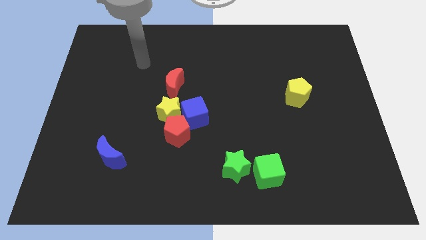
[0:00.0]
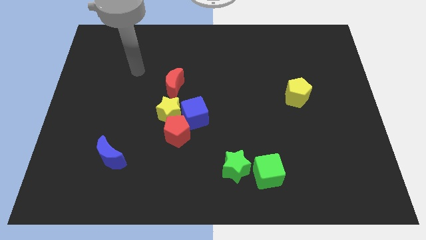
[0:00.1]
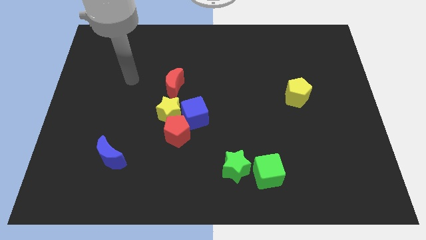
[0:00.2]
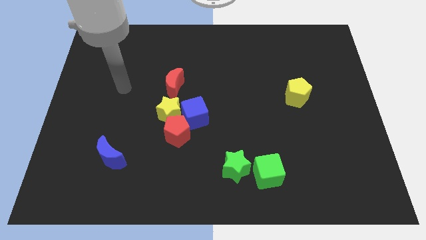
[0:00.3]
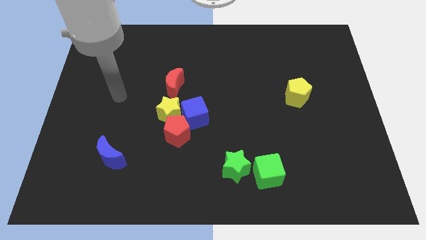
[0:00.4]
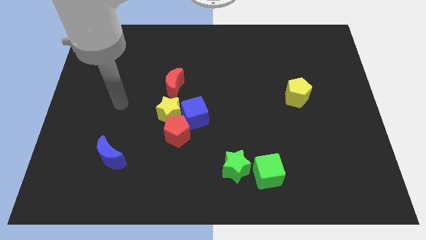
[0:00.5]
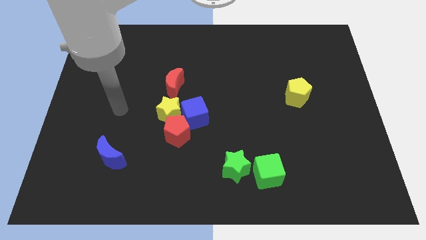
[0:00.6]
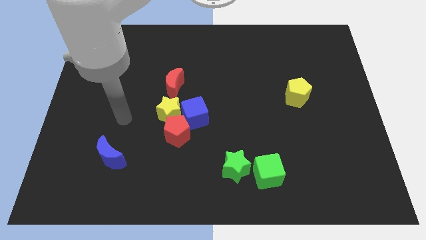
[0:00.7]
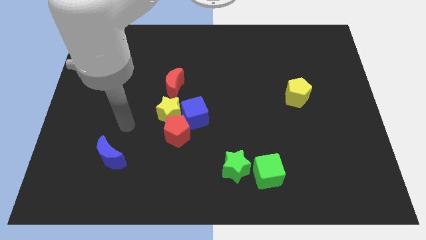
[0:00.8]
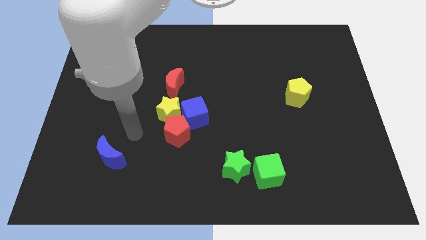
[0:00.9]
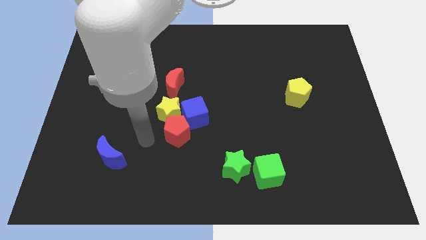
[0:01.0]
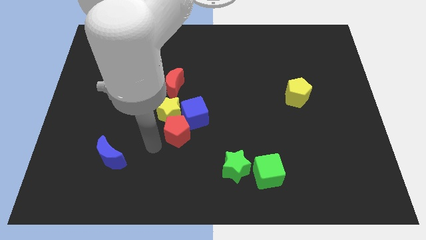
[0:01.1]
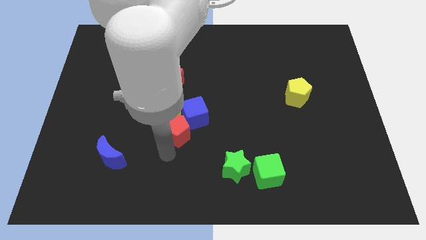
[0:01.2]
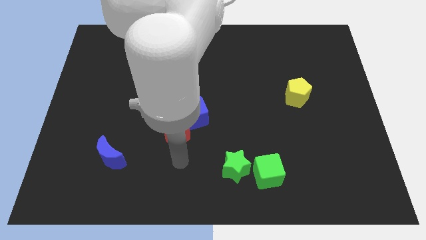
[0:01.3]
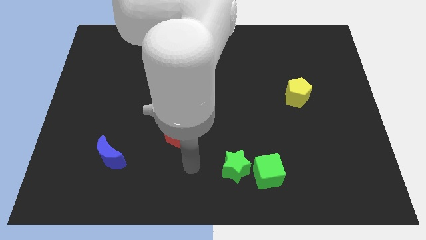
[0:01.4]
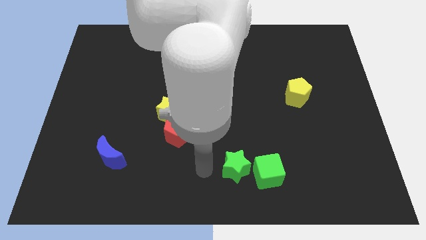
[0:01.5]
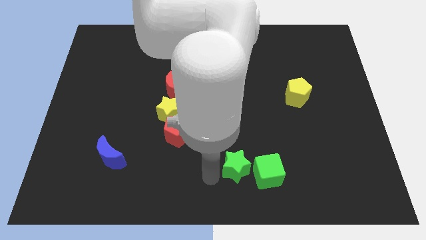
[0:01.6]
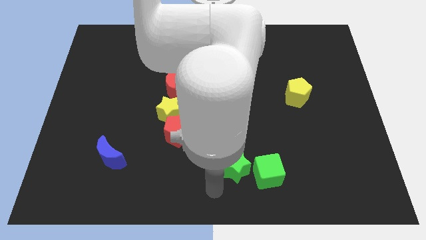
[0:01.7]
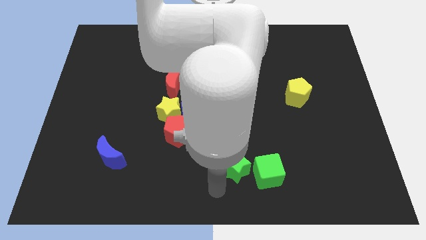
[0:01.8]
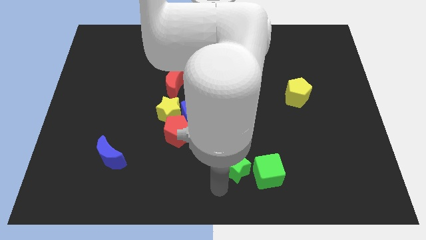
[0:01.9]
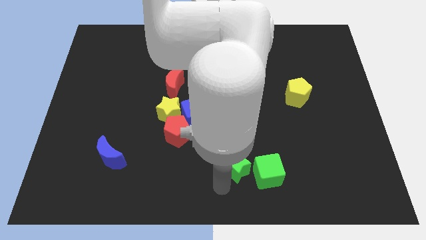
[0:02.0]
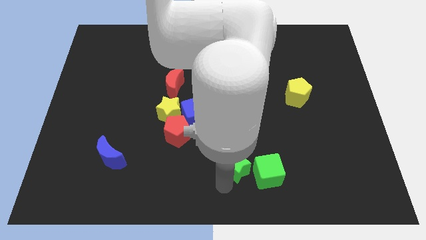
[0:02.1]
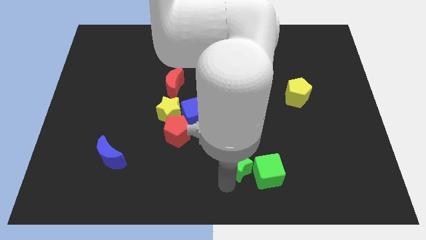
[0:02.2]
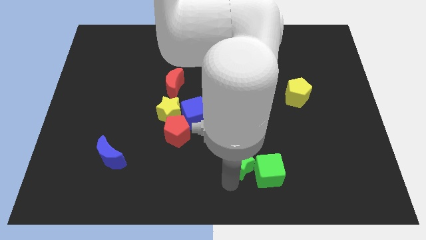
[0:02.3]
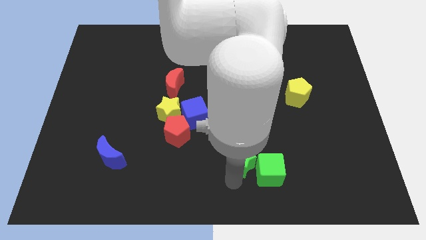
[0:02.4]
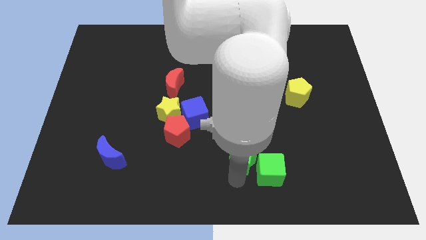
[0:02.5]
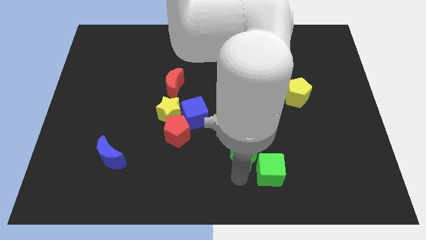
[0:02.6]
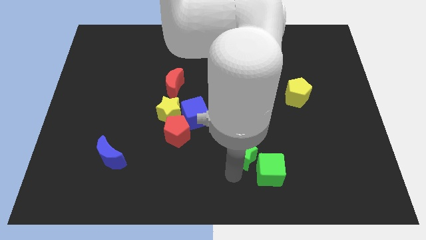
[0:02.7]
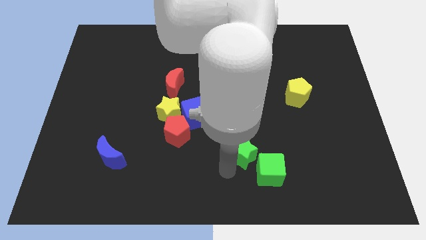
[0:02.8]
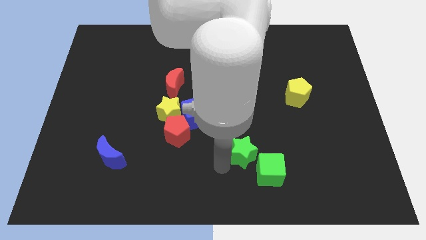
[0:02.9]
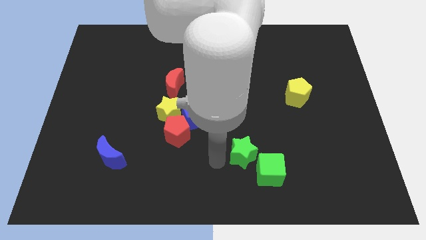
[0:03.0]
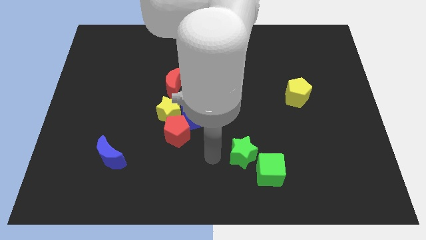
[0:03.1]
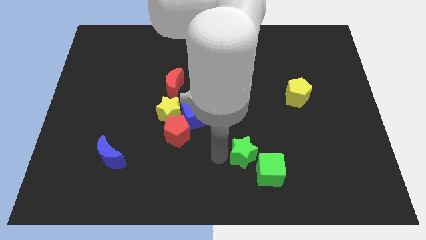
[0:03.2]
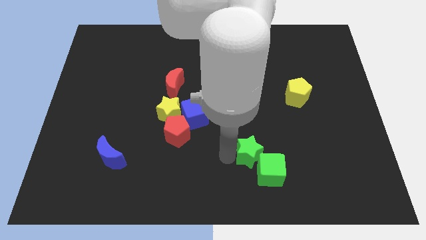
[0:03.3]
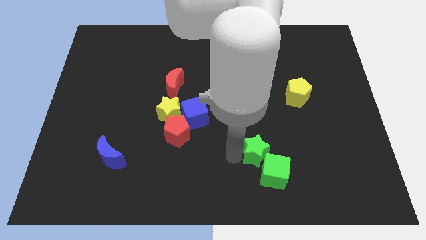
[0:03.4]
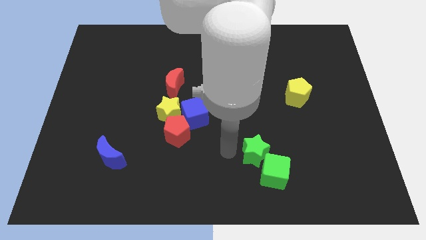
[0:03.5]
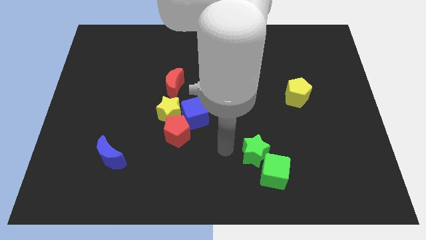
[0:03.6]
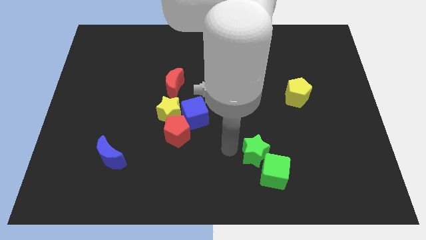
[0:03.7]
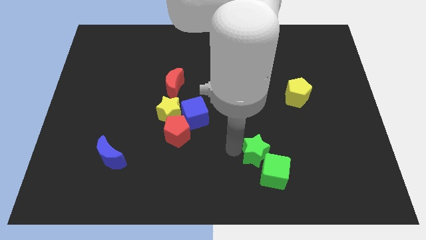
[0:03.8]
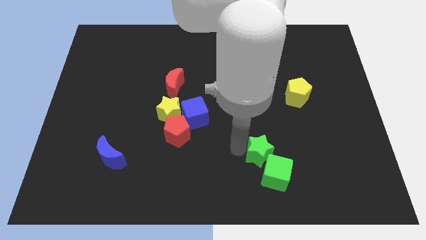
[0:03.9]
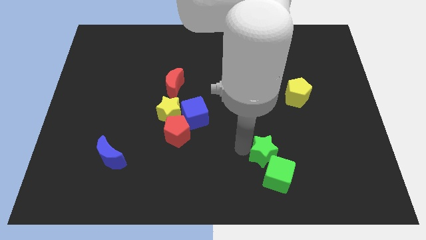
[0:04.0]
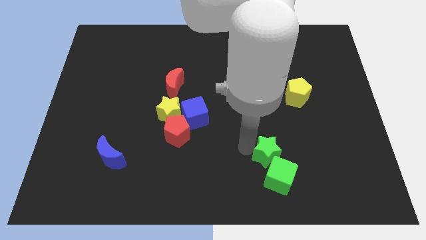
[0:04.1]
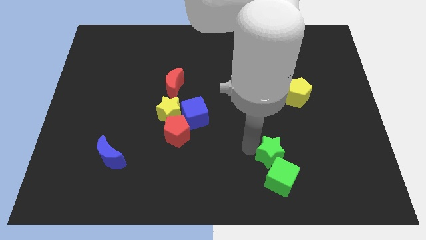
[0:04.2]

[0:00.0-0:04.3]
move the green star to the right a bit

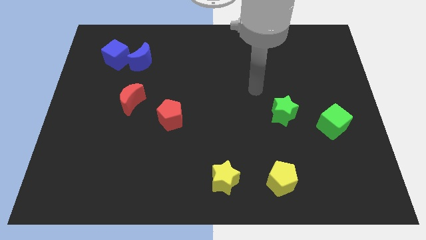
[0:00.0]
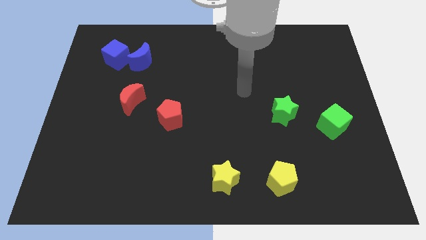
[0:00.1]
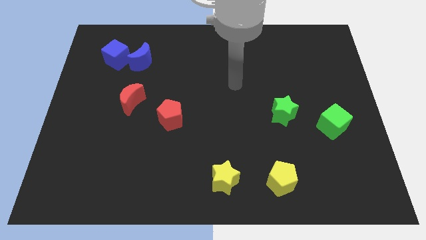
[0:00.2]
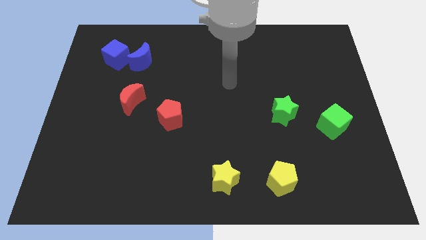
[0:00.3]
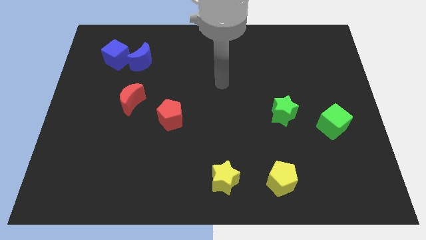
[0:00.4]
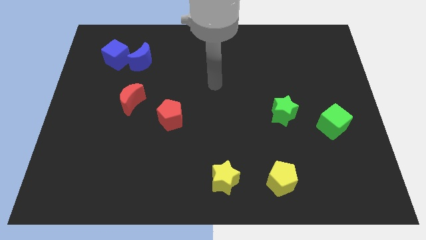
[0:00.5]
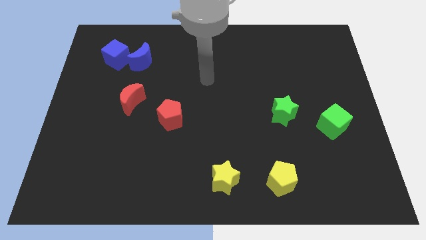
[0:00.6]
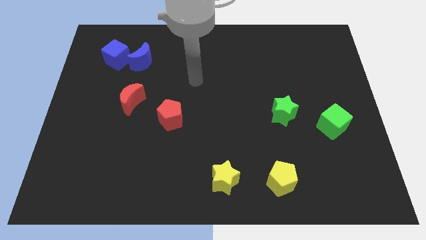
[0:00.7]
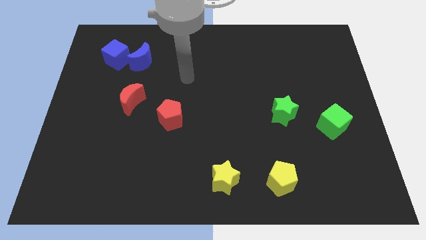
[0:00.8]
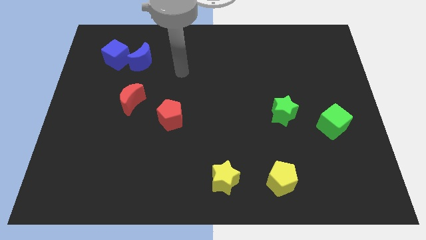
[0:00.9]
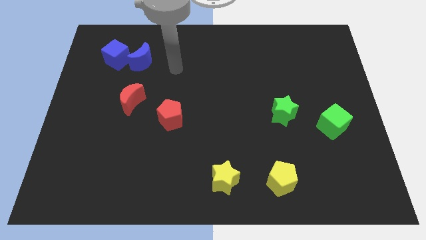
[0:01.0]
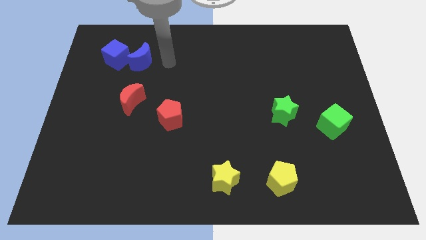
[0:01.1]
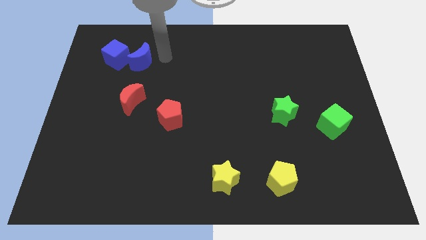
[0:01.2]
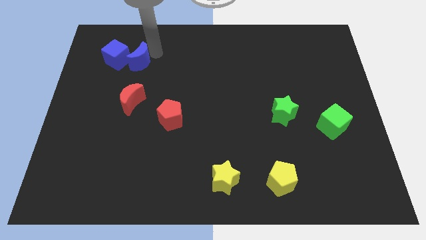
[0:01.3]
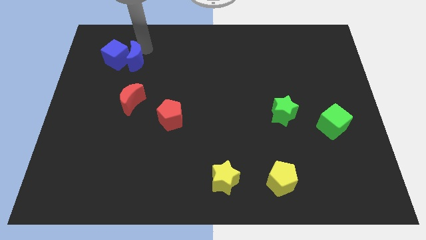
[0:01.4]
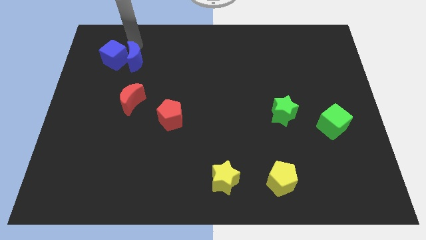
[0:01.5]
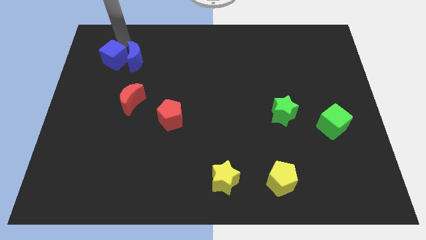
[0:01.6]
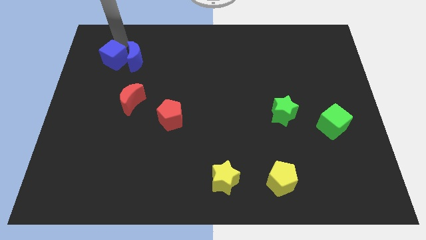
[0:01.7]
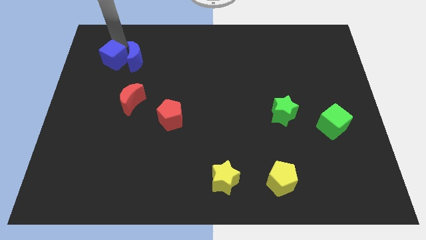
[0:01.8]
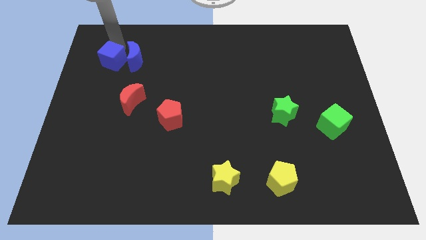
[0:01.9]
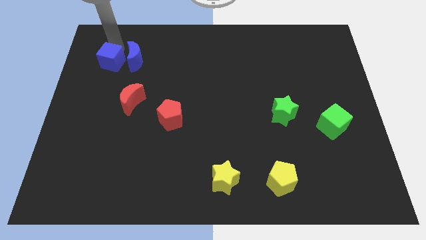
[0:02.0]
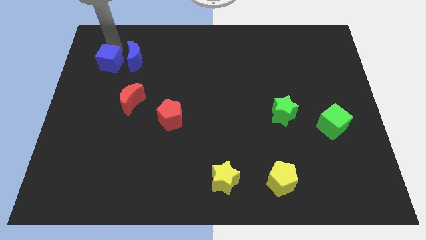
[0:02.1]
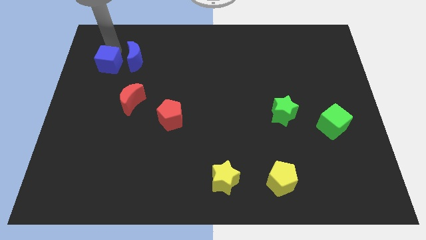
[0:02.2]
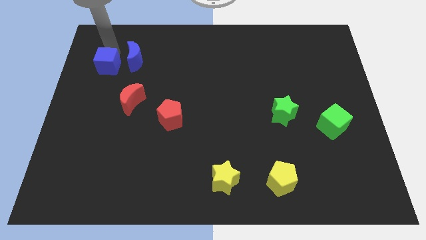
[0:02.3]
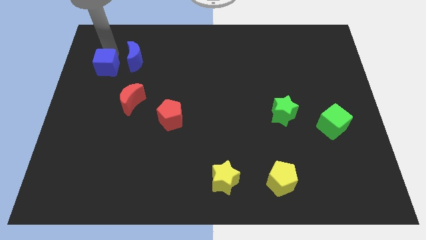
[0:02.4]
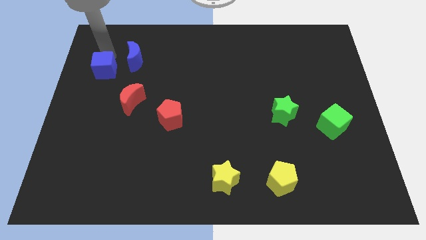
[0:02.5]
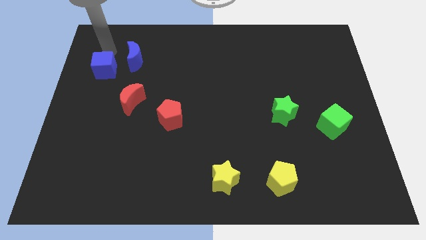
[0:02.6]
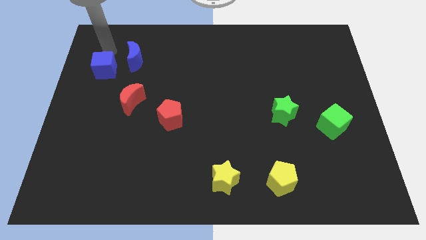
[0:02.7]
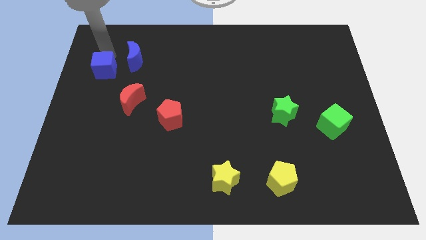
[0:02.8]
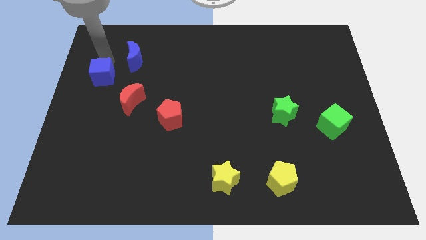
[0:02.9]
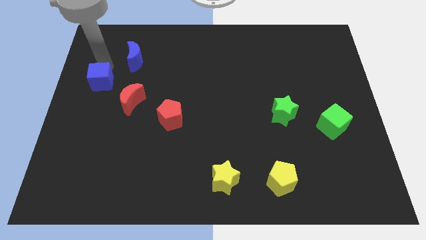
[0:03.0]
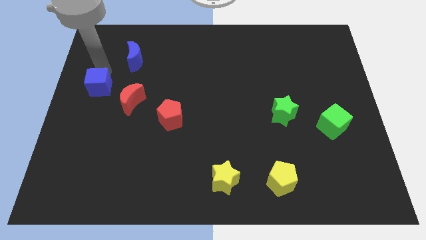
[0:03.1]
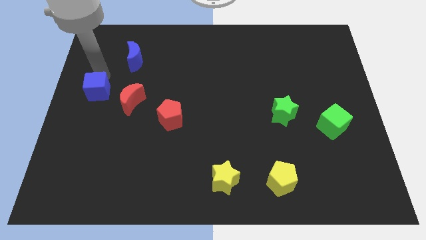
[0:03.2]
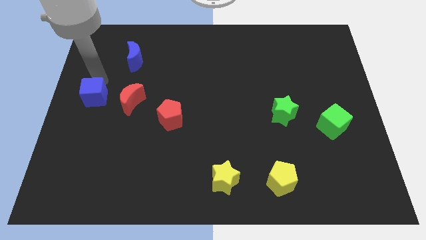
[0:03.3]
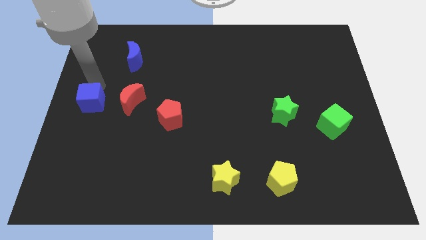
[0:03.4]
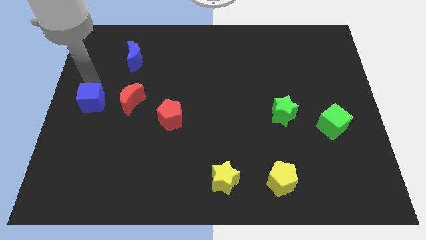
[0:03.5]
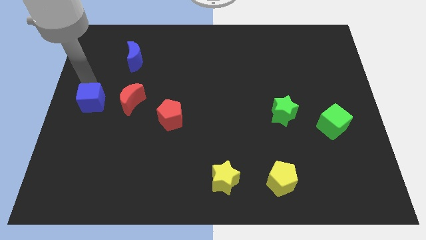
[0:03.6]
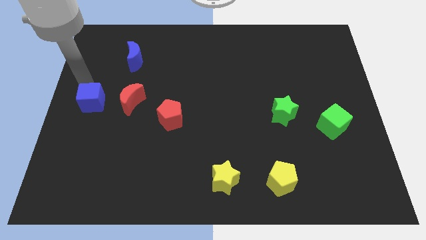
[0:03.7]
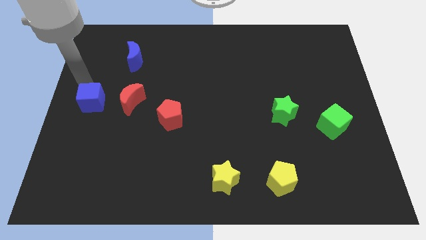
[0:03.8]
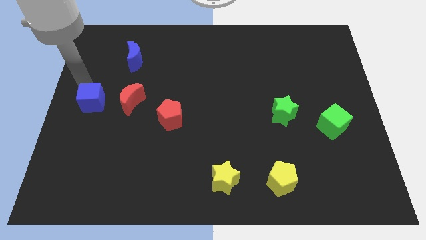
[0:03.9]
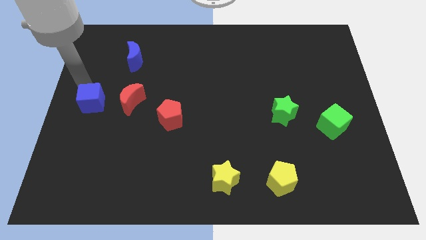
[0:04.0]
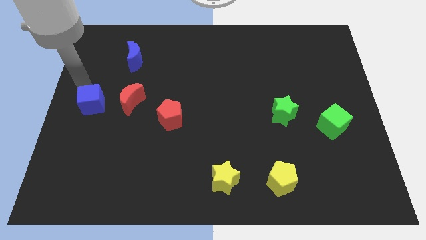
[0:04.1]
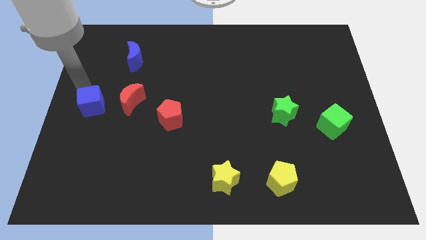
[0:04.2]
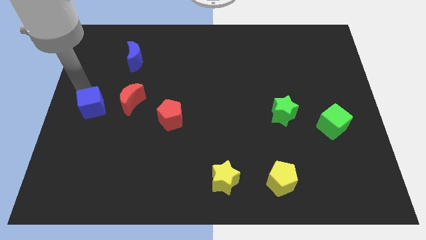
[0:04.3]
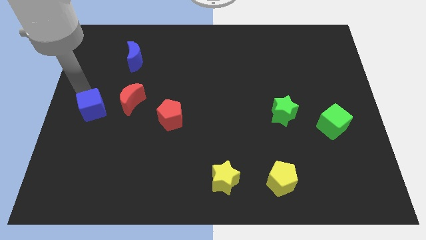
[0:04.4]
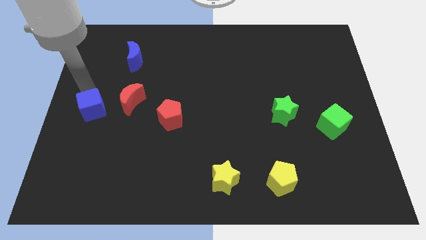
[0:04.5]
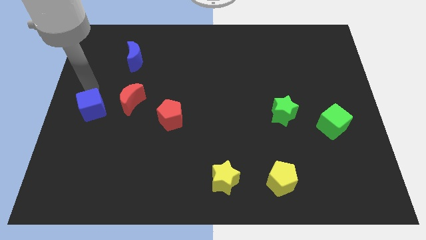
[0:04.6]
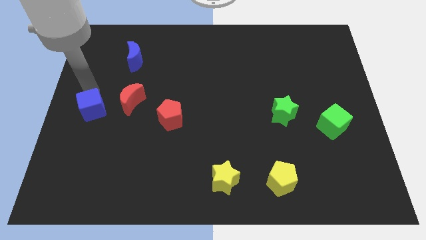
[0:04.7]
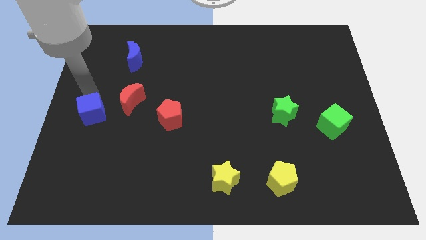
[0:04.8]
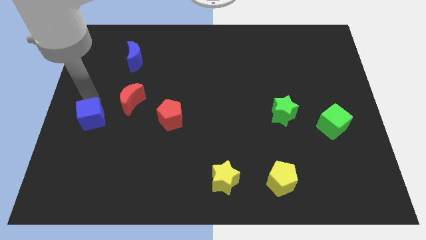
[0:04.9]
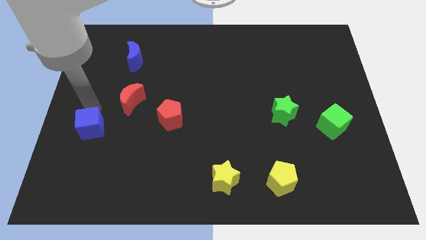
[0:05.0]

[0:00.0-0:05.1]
move the blue cube downwards
